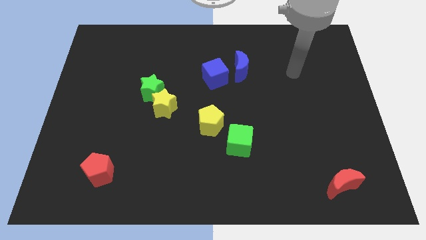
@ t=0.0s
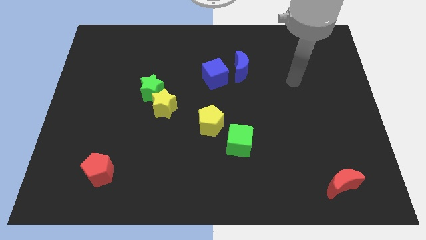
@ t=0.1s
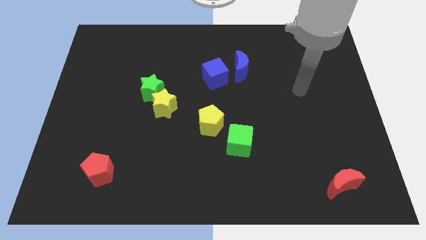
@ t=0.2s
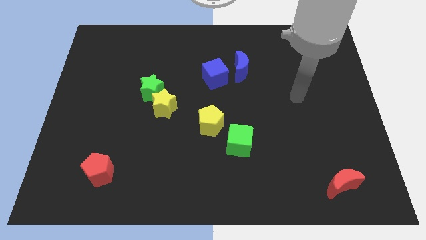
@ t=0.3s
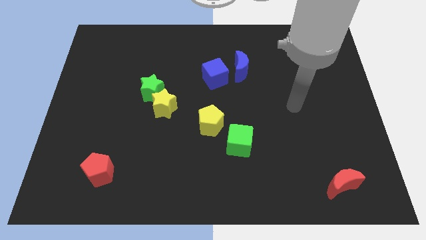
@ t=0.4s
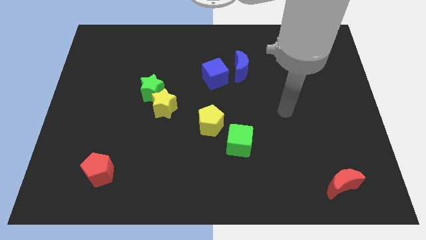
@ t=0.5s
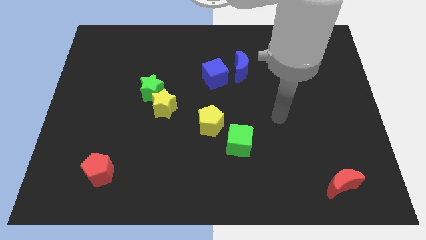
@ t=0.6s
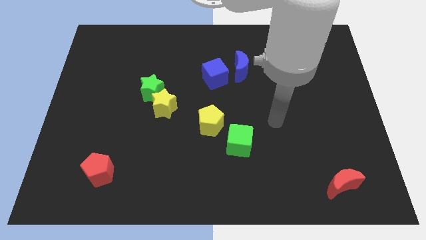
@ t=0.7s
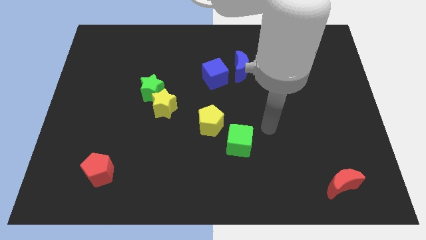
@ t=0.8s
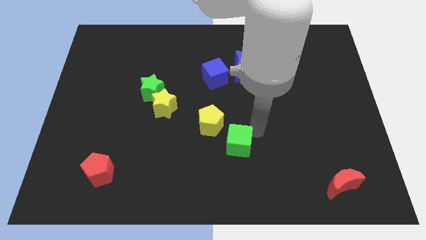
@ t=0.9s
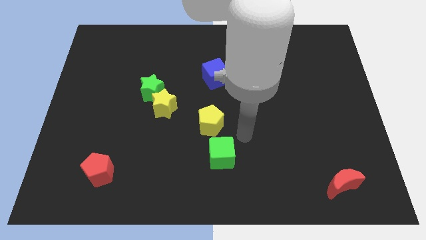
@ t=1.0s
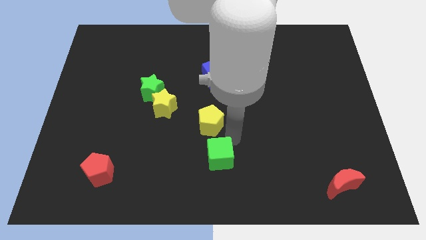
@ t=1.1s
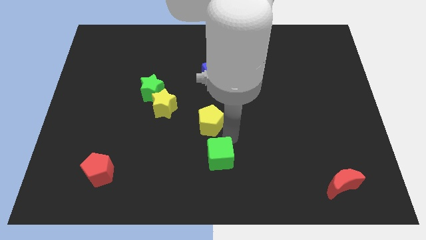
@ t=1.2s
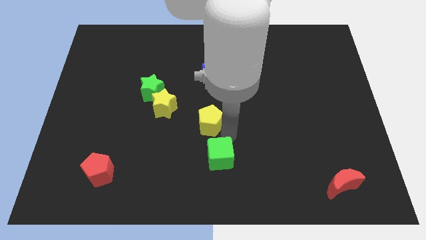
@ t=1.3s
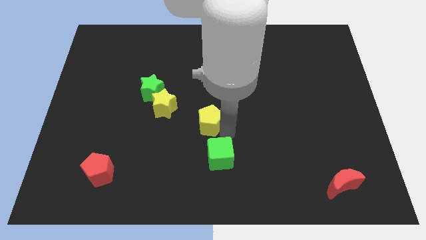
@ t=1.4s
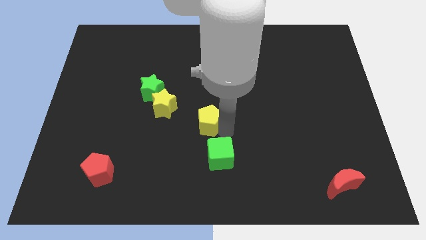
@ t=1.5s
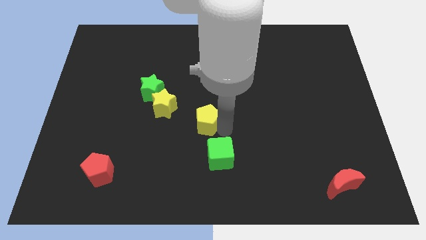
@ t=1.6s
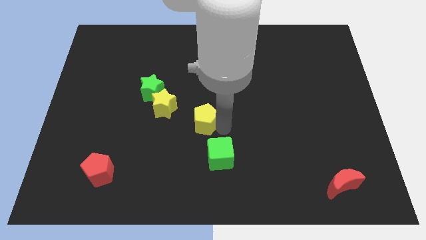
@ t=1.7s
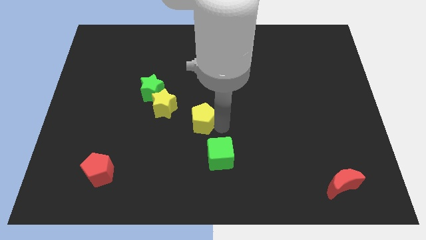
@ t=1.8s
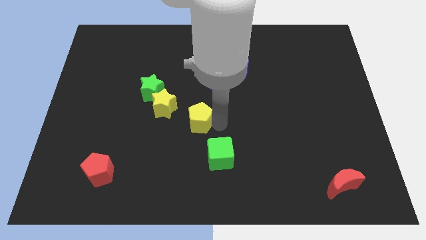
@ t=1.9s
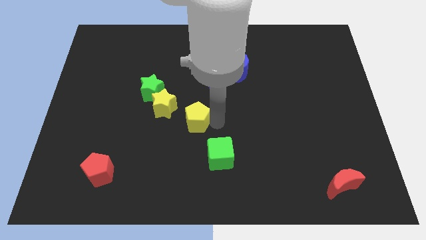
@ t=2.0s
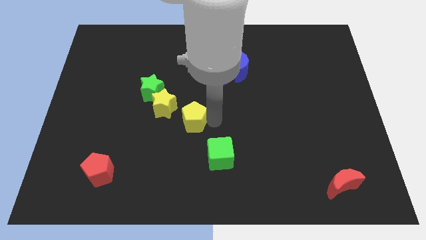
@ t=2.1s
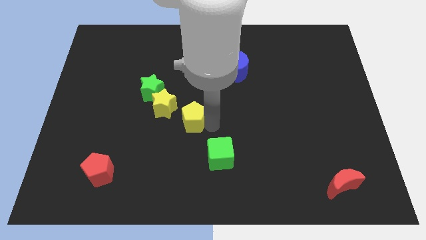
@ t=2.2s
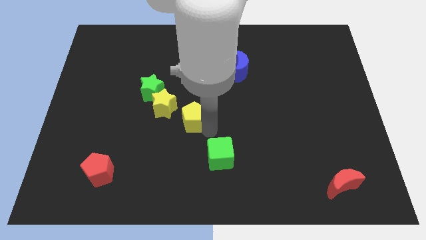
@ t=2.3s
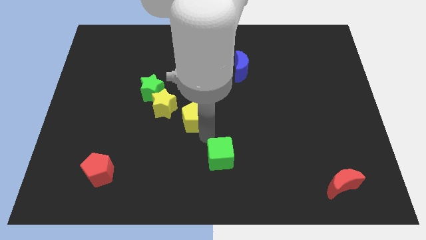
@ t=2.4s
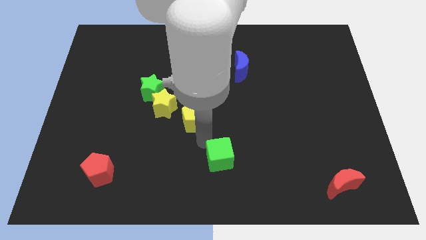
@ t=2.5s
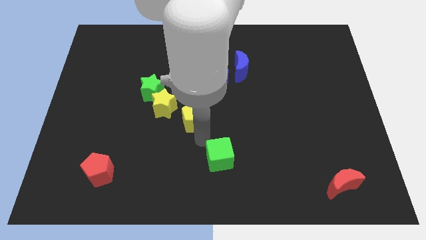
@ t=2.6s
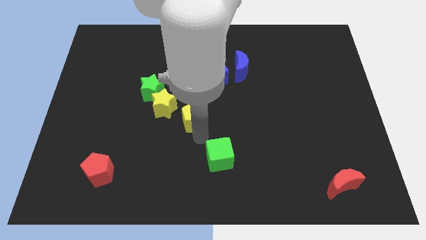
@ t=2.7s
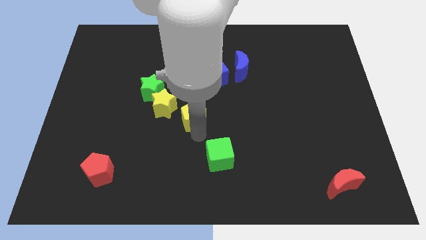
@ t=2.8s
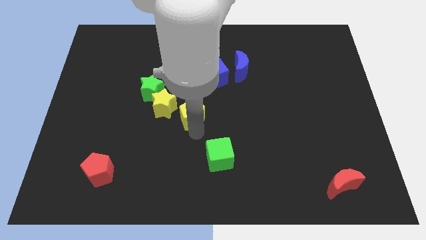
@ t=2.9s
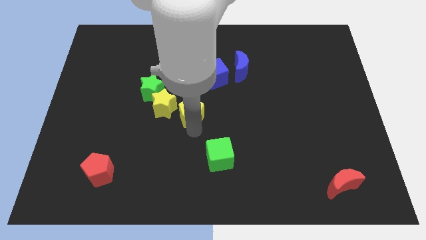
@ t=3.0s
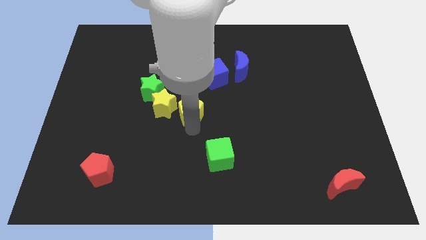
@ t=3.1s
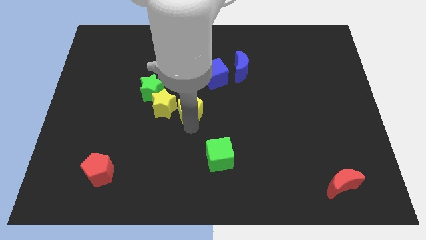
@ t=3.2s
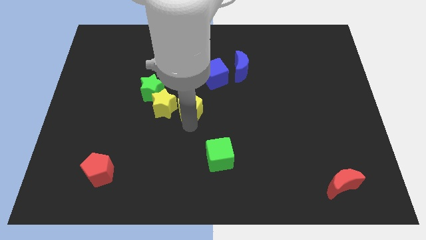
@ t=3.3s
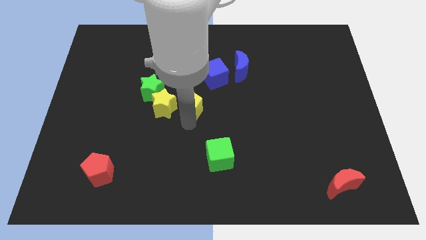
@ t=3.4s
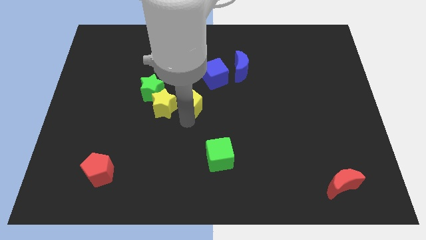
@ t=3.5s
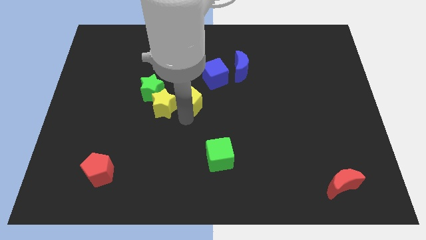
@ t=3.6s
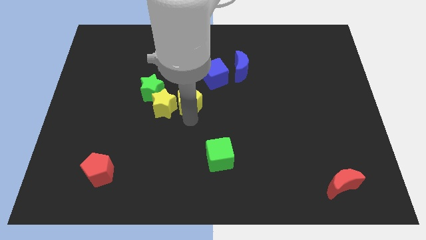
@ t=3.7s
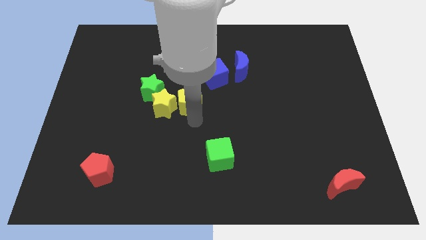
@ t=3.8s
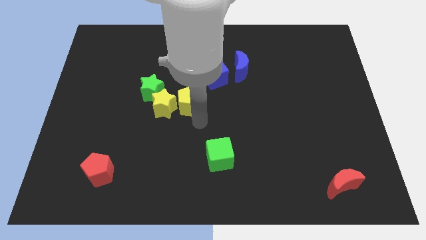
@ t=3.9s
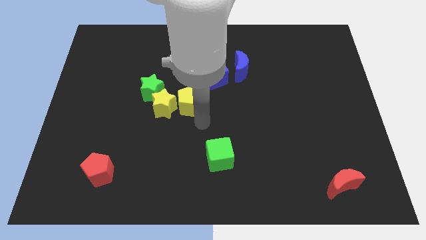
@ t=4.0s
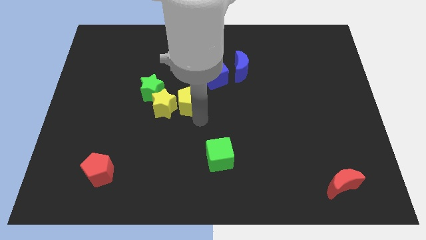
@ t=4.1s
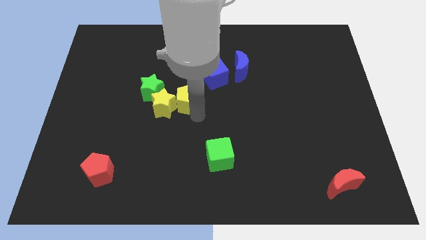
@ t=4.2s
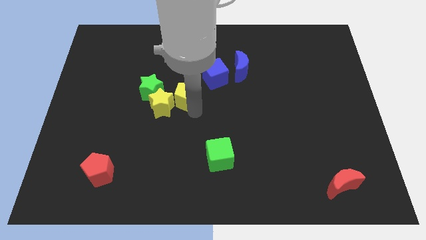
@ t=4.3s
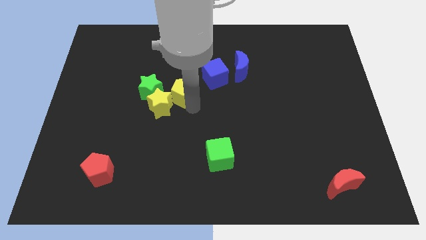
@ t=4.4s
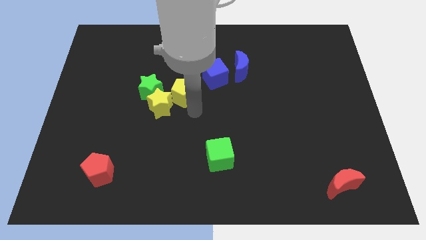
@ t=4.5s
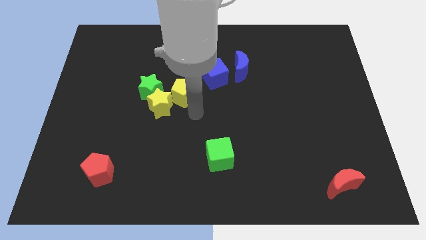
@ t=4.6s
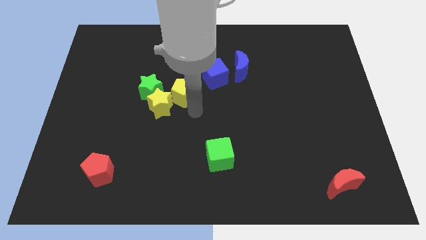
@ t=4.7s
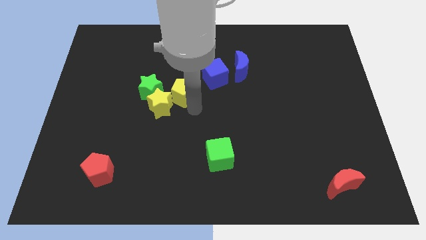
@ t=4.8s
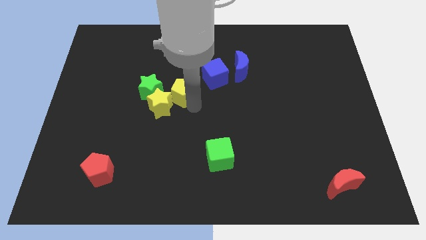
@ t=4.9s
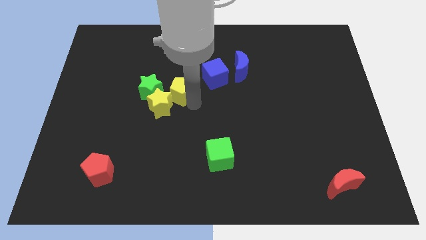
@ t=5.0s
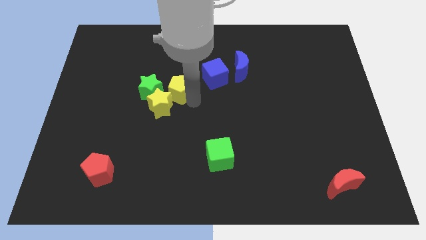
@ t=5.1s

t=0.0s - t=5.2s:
push the yellow pentagon left of the blue cube

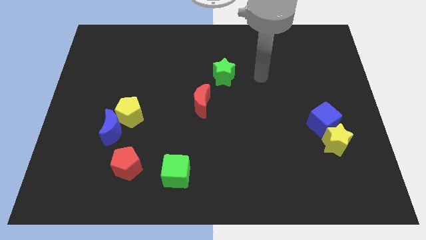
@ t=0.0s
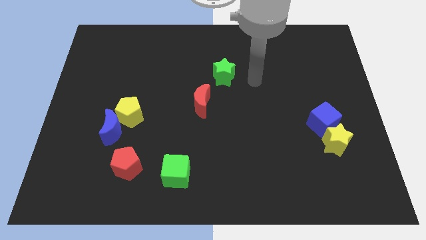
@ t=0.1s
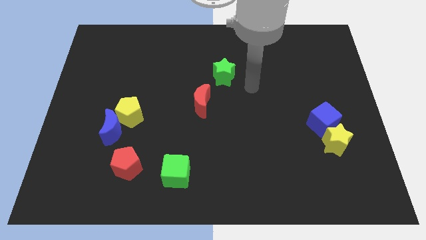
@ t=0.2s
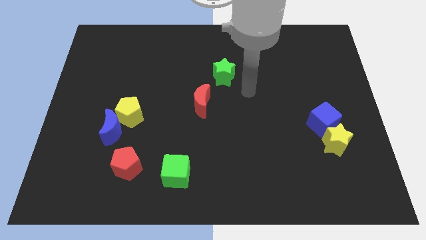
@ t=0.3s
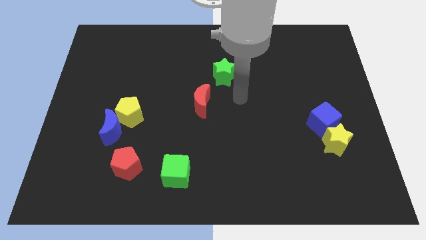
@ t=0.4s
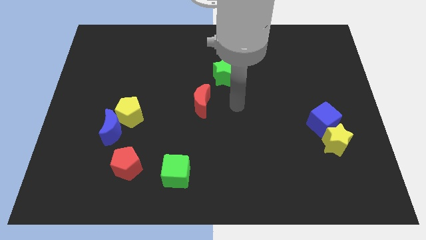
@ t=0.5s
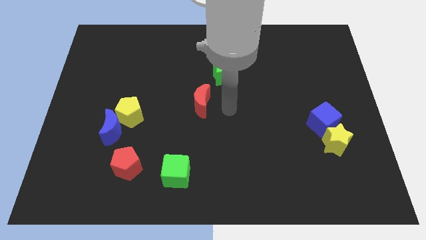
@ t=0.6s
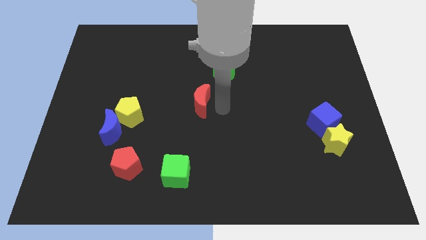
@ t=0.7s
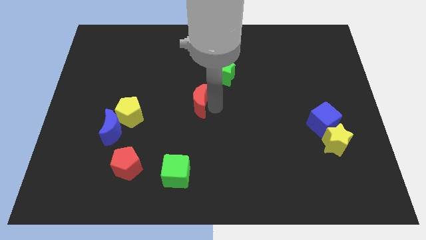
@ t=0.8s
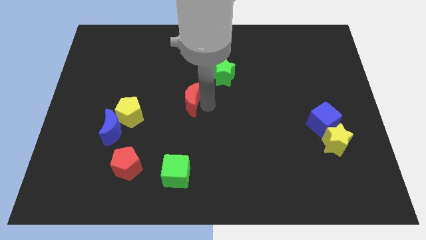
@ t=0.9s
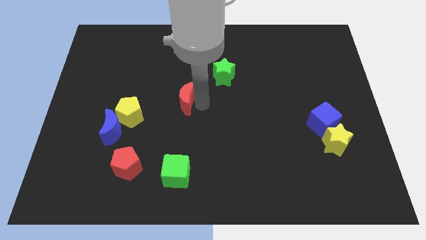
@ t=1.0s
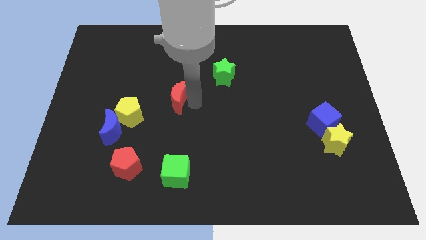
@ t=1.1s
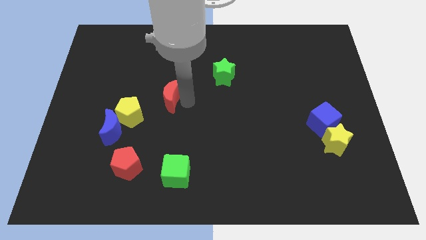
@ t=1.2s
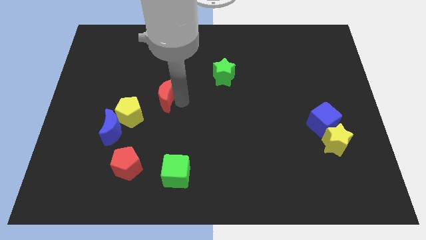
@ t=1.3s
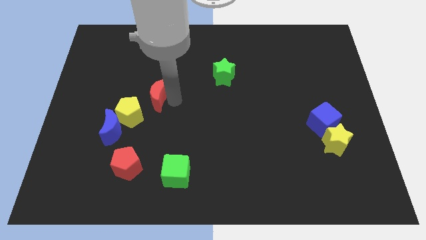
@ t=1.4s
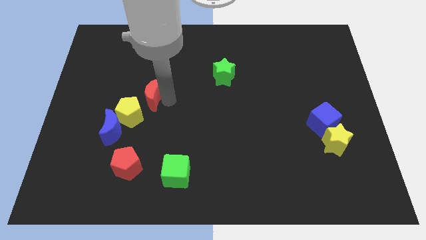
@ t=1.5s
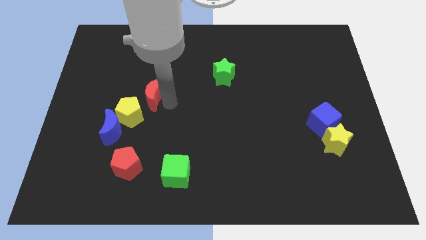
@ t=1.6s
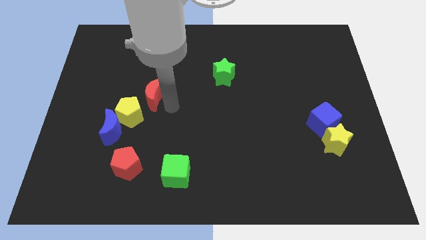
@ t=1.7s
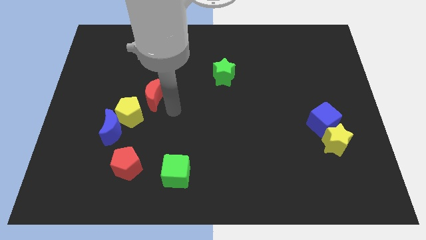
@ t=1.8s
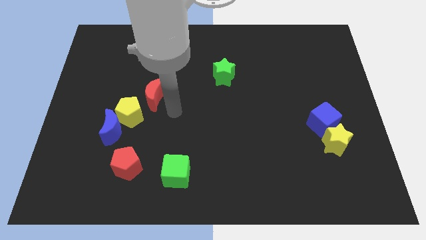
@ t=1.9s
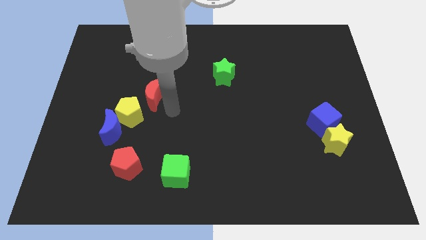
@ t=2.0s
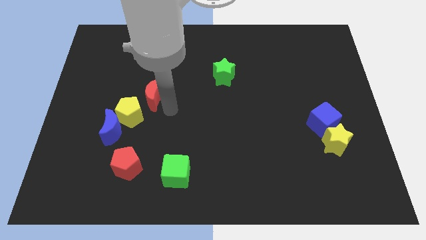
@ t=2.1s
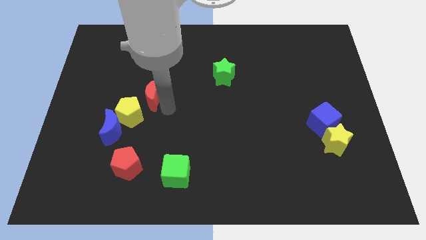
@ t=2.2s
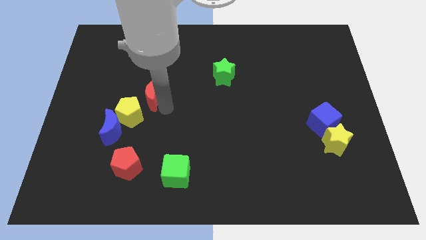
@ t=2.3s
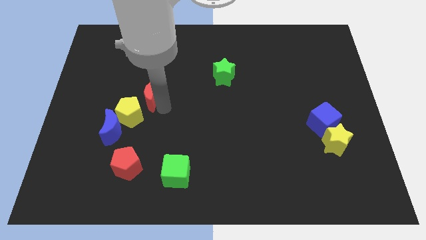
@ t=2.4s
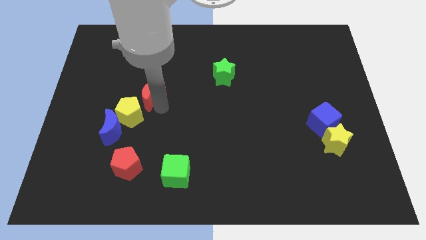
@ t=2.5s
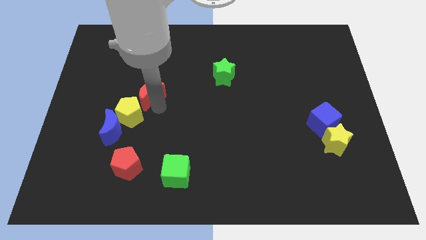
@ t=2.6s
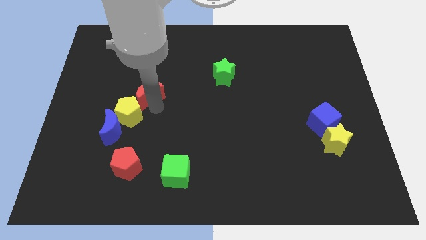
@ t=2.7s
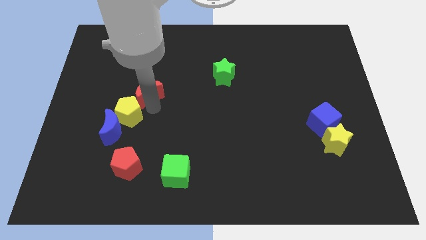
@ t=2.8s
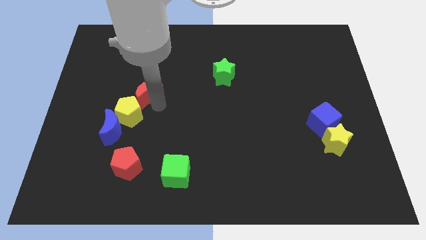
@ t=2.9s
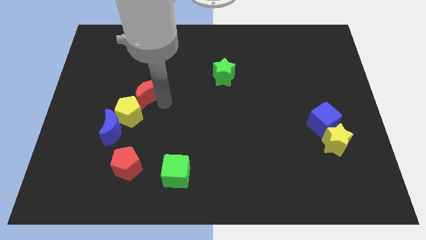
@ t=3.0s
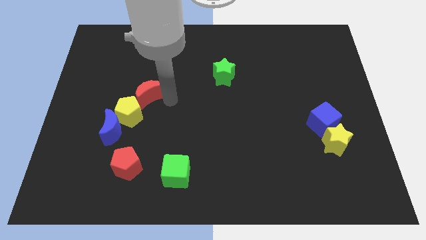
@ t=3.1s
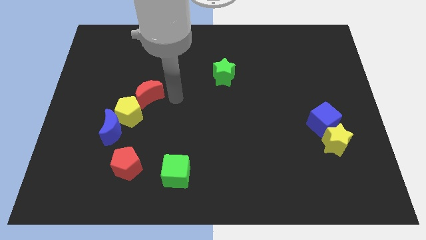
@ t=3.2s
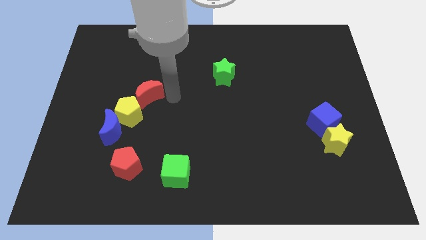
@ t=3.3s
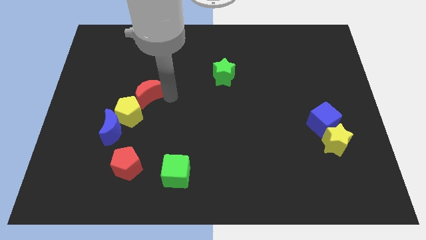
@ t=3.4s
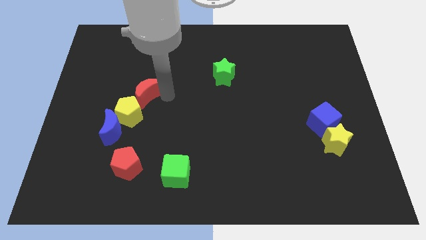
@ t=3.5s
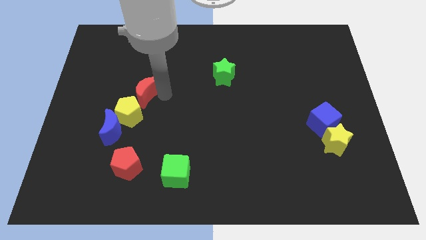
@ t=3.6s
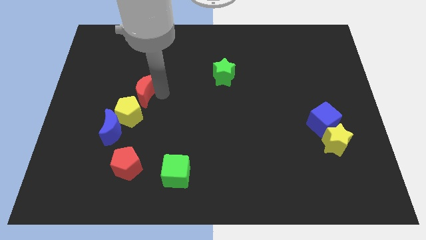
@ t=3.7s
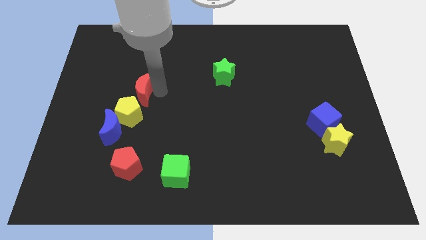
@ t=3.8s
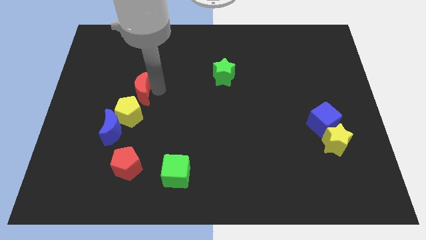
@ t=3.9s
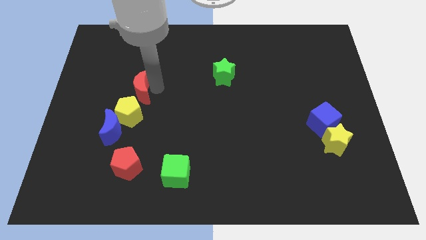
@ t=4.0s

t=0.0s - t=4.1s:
move the red moon to the top of the blue moon
